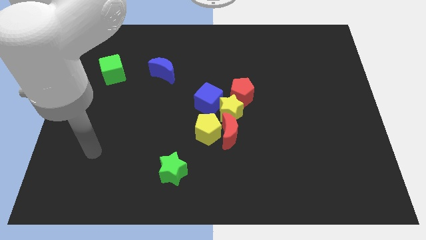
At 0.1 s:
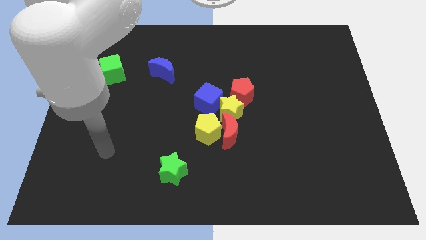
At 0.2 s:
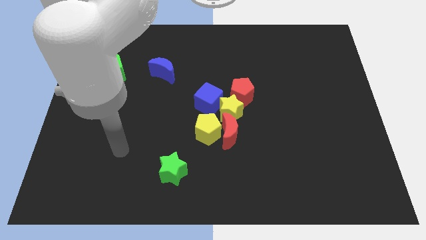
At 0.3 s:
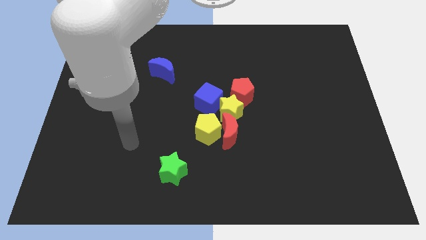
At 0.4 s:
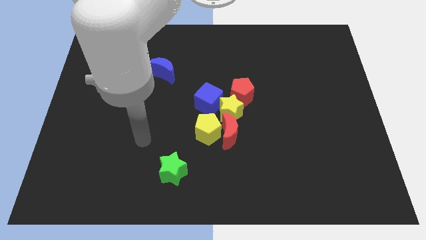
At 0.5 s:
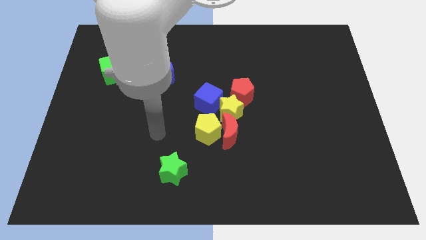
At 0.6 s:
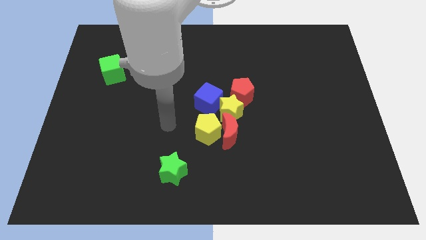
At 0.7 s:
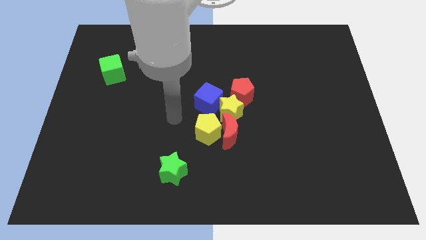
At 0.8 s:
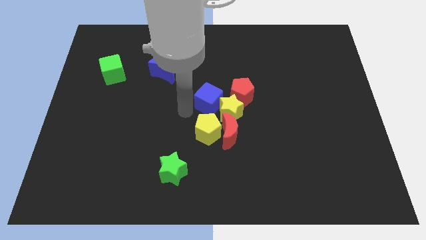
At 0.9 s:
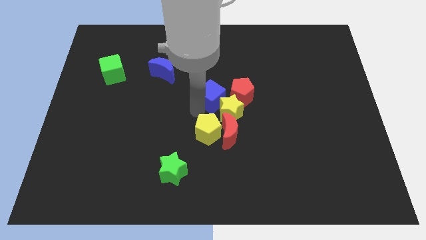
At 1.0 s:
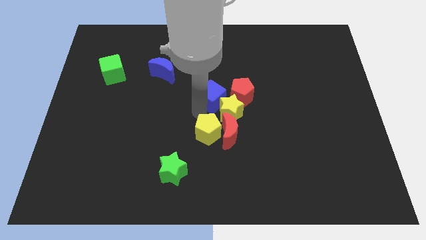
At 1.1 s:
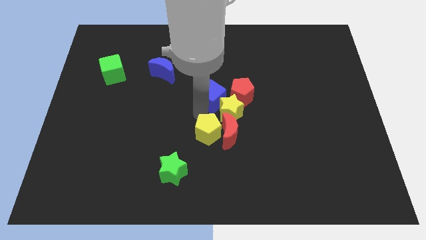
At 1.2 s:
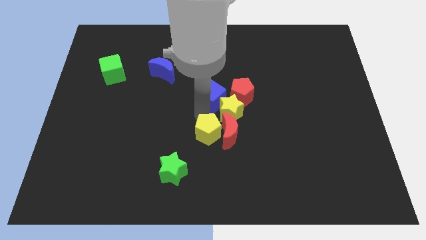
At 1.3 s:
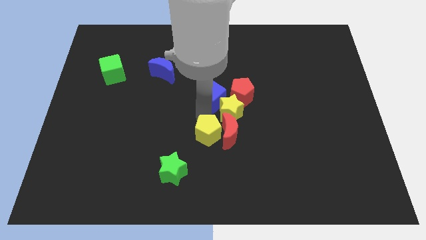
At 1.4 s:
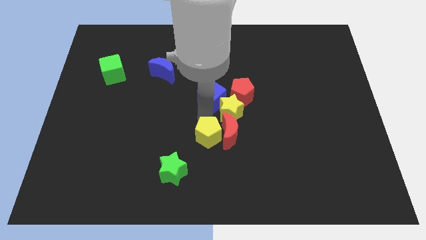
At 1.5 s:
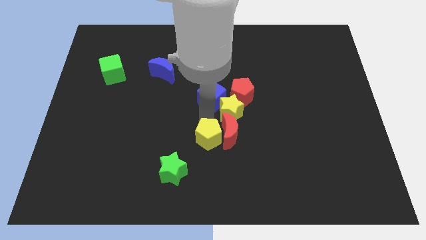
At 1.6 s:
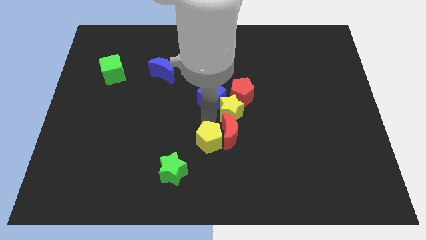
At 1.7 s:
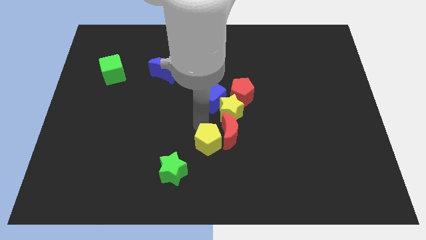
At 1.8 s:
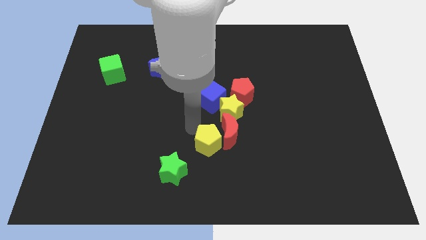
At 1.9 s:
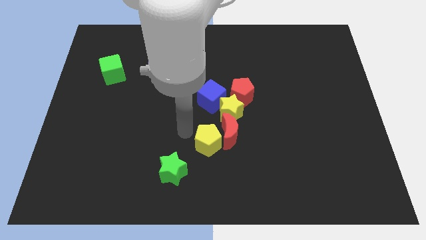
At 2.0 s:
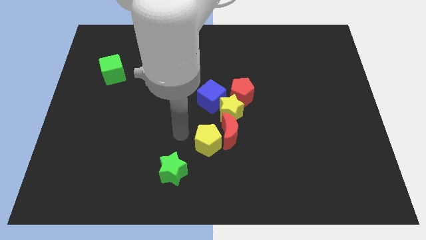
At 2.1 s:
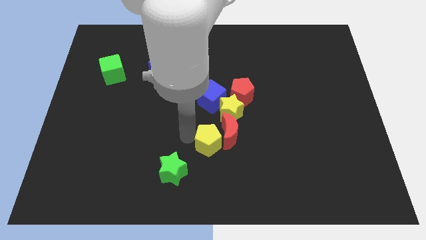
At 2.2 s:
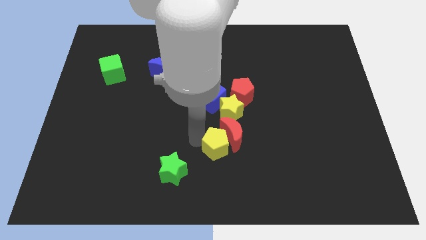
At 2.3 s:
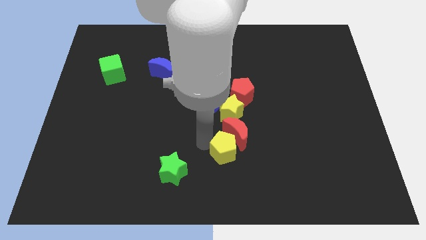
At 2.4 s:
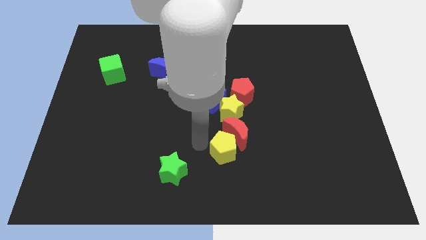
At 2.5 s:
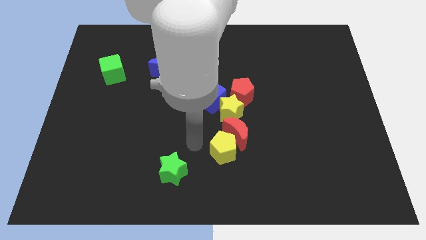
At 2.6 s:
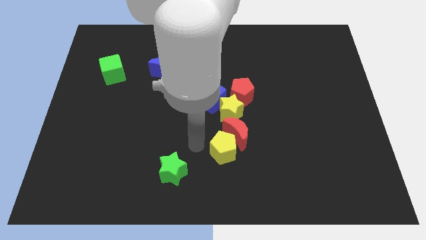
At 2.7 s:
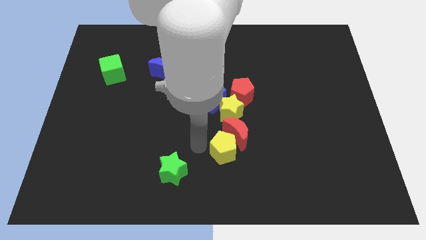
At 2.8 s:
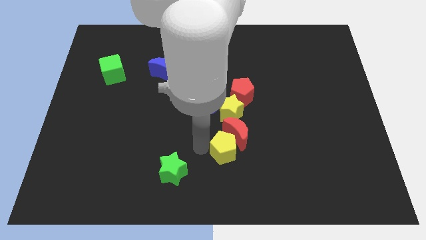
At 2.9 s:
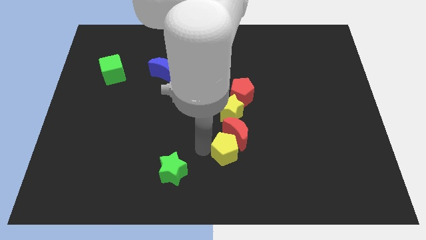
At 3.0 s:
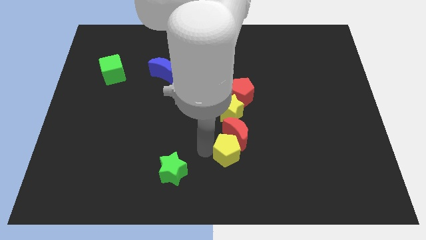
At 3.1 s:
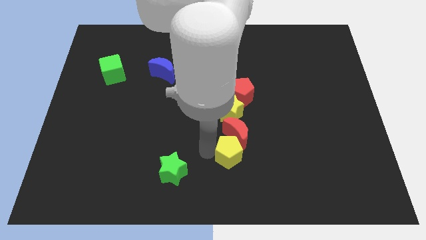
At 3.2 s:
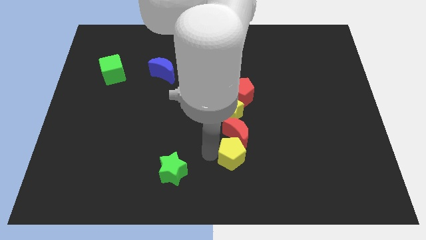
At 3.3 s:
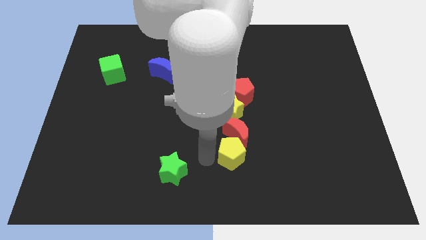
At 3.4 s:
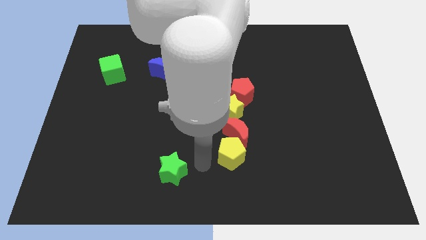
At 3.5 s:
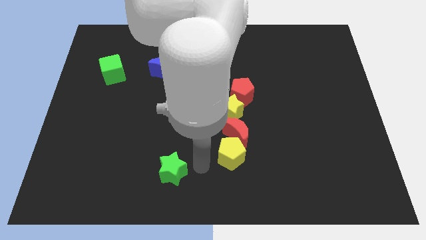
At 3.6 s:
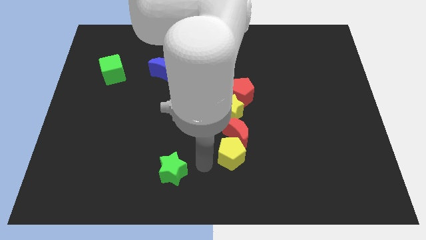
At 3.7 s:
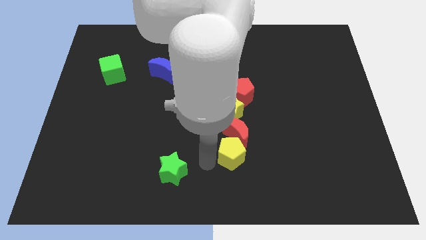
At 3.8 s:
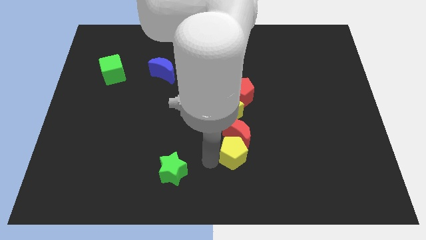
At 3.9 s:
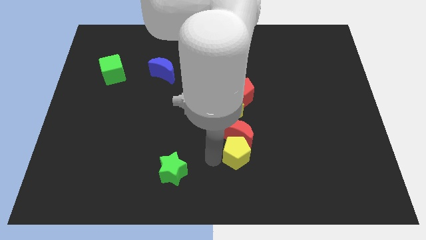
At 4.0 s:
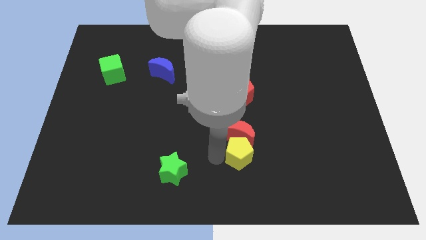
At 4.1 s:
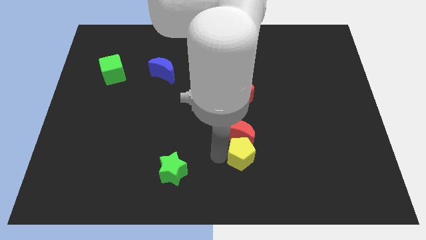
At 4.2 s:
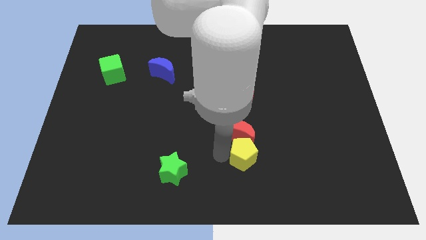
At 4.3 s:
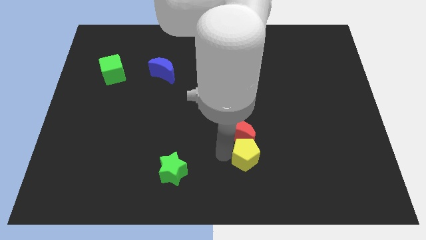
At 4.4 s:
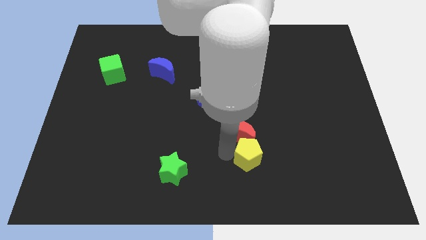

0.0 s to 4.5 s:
slide the yellow pentagon a bit to the right

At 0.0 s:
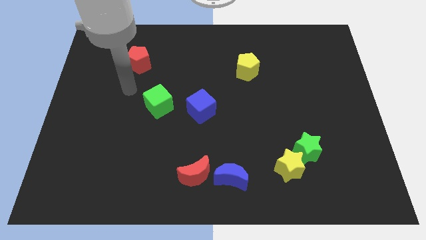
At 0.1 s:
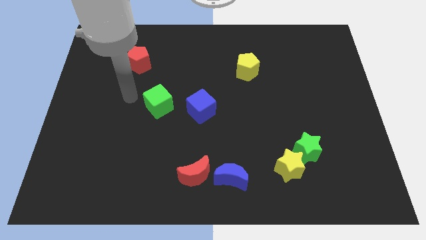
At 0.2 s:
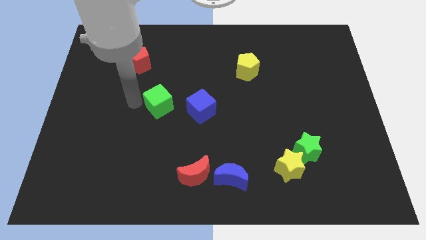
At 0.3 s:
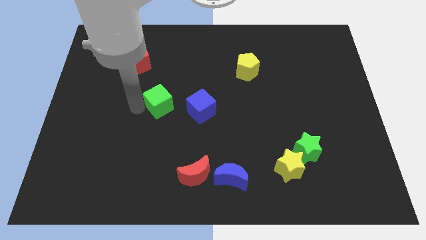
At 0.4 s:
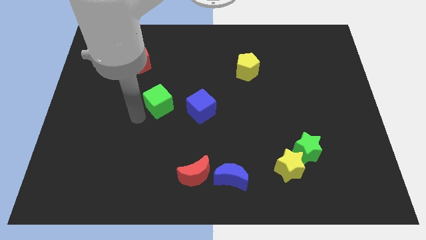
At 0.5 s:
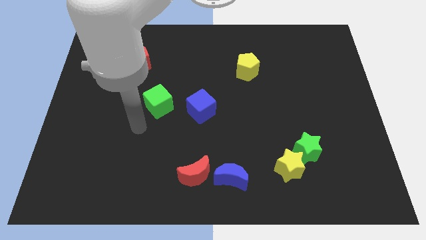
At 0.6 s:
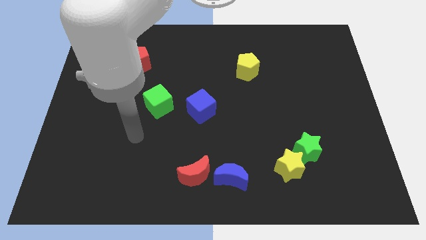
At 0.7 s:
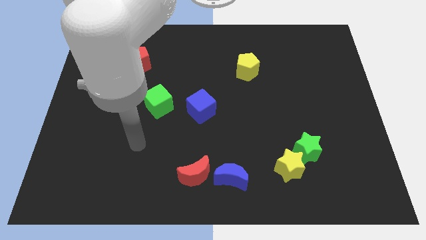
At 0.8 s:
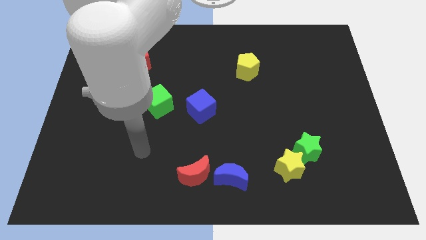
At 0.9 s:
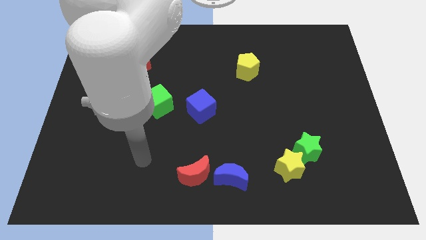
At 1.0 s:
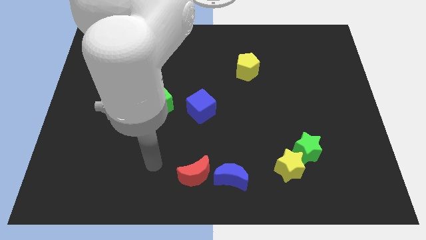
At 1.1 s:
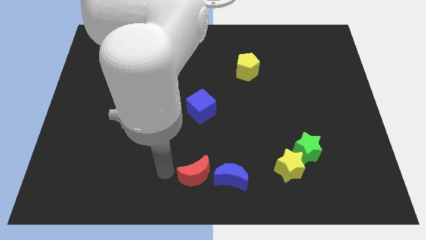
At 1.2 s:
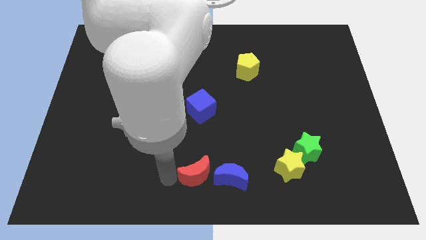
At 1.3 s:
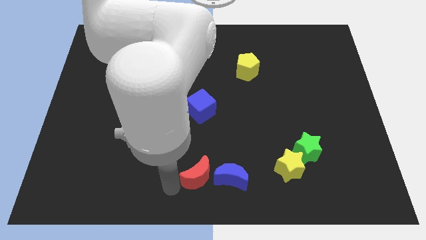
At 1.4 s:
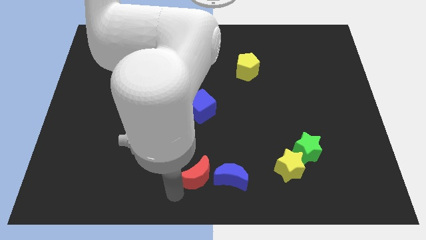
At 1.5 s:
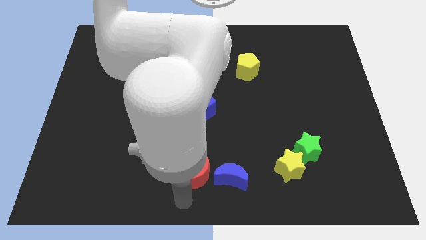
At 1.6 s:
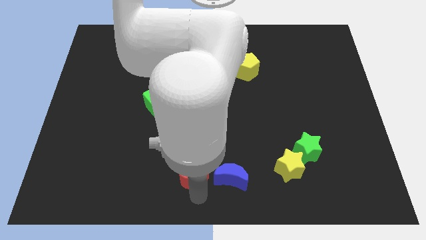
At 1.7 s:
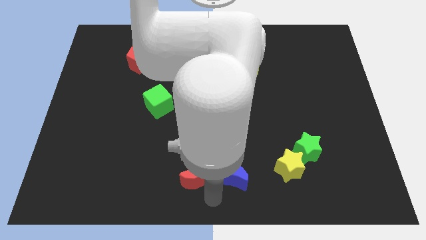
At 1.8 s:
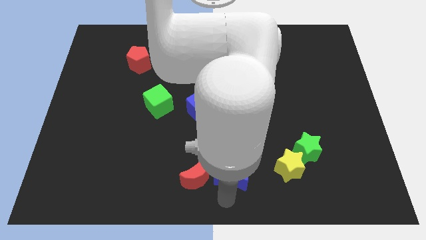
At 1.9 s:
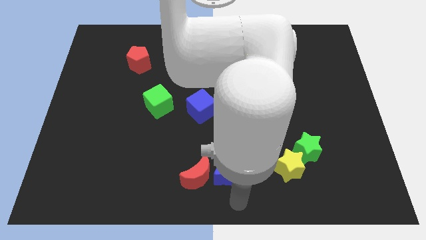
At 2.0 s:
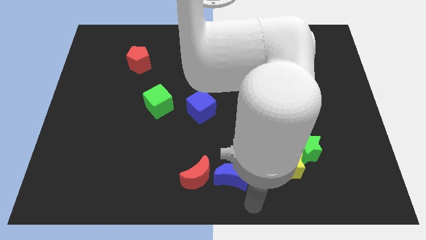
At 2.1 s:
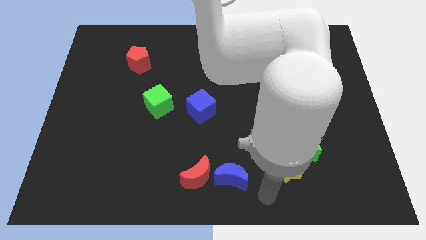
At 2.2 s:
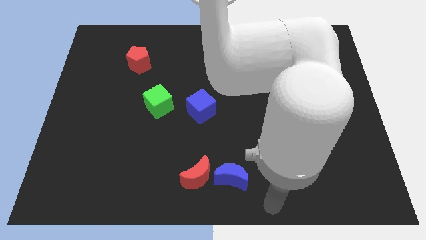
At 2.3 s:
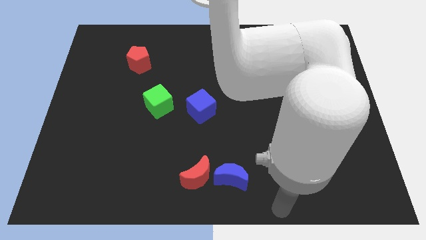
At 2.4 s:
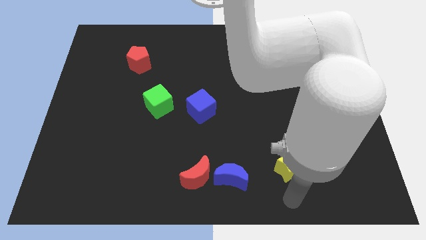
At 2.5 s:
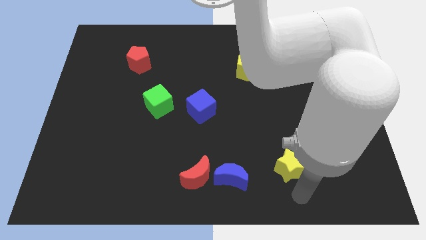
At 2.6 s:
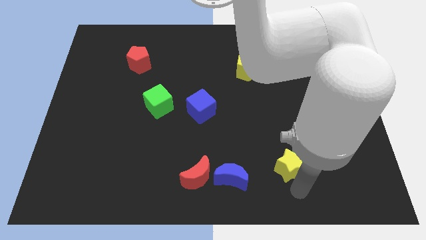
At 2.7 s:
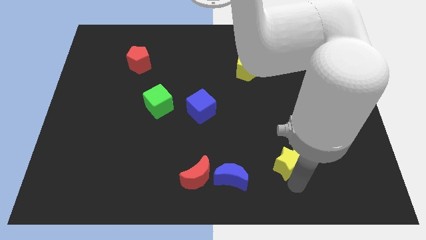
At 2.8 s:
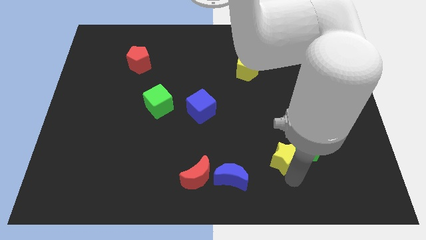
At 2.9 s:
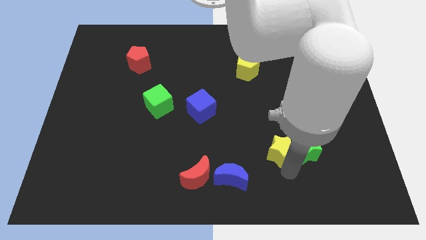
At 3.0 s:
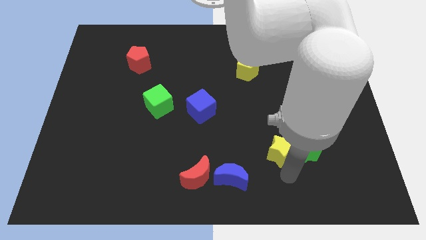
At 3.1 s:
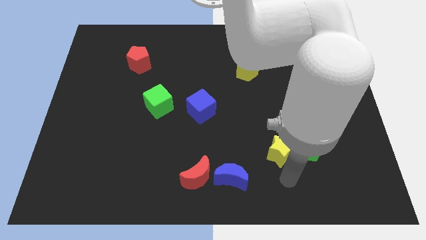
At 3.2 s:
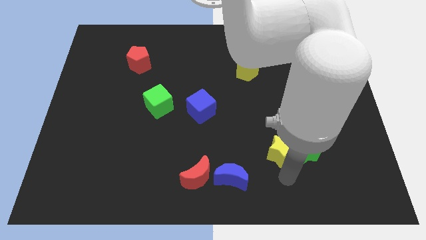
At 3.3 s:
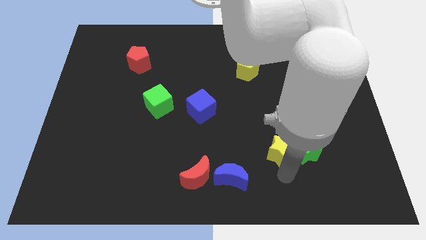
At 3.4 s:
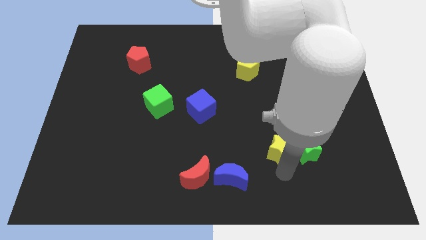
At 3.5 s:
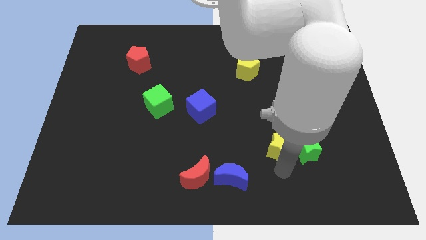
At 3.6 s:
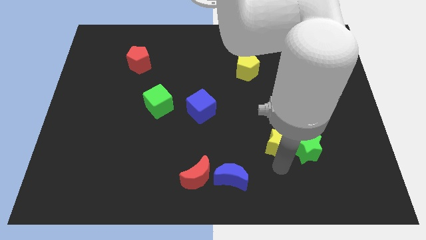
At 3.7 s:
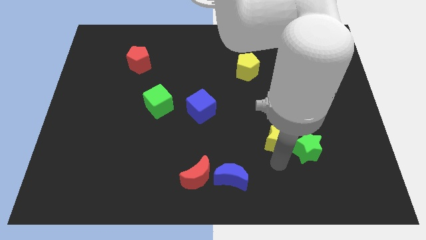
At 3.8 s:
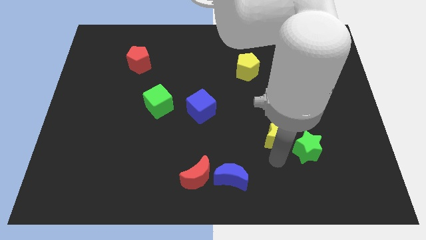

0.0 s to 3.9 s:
slightly move the yellow star up
